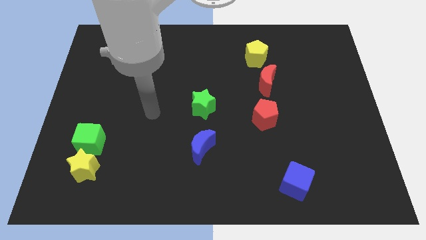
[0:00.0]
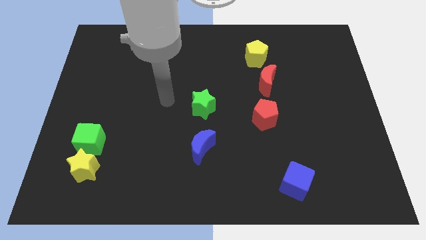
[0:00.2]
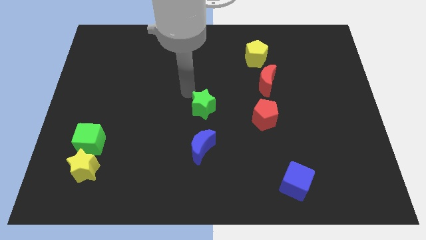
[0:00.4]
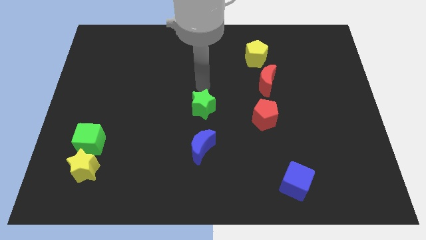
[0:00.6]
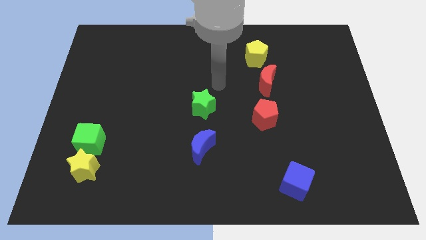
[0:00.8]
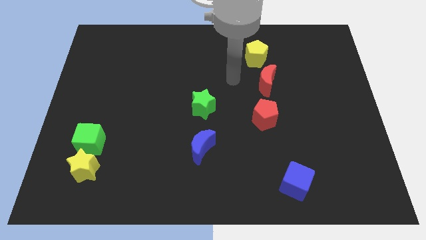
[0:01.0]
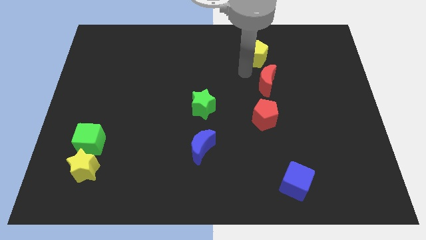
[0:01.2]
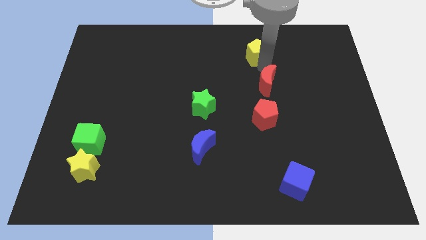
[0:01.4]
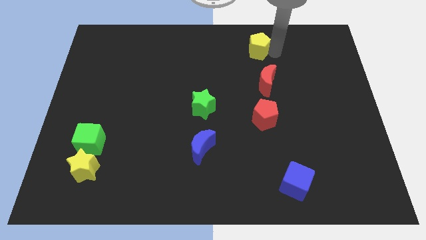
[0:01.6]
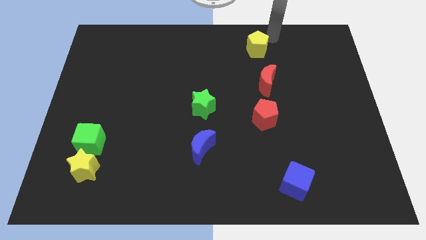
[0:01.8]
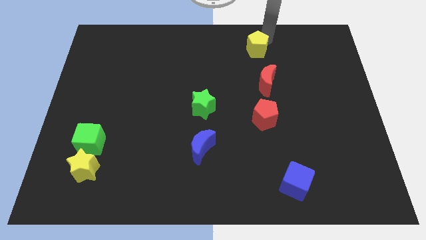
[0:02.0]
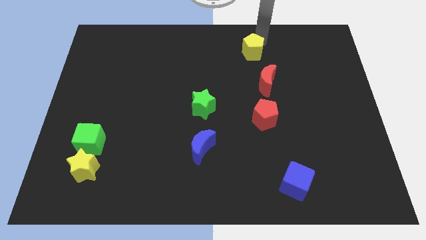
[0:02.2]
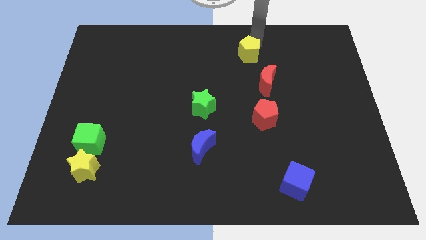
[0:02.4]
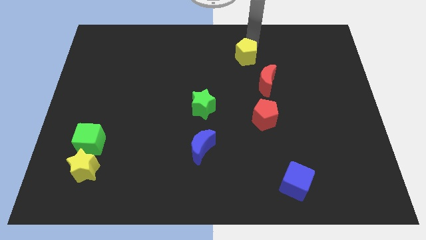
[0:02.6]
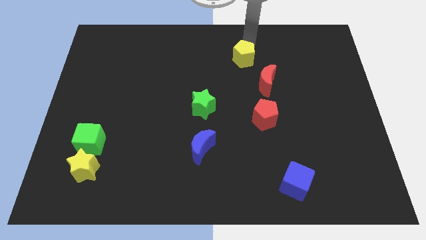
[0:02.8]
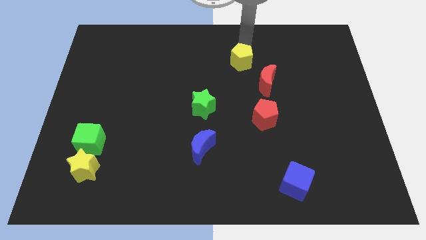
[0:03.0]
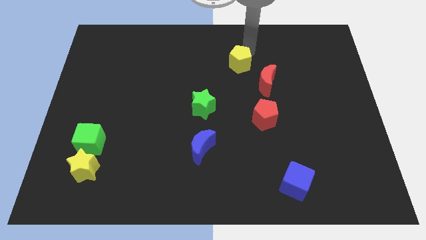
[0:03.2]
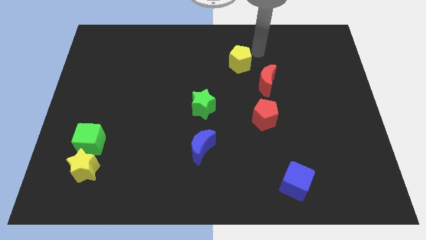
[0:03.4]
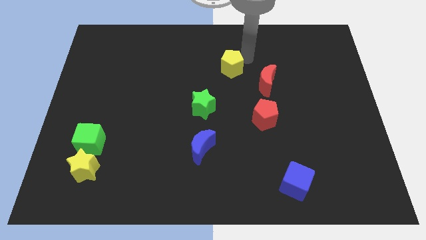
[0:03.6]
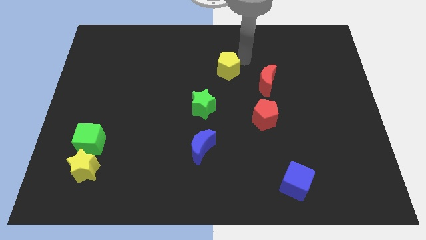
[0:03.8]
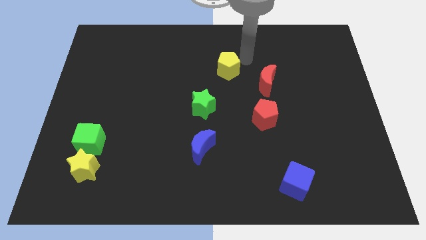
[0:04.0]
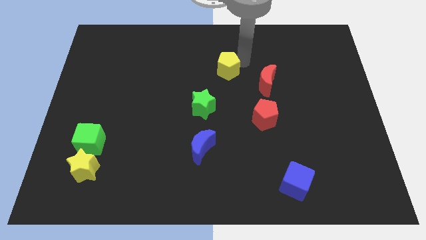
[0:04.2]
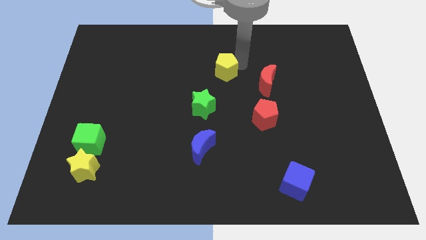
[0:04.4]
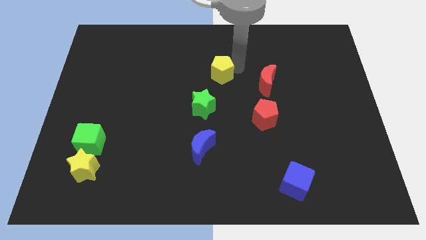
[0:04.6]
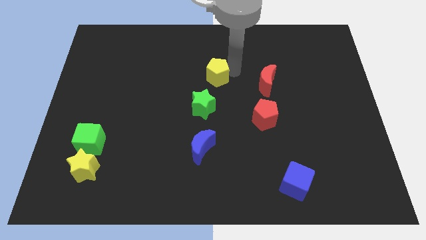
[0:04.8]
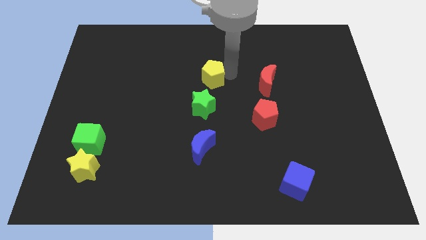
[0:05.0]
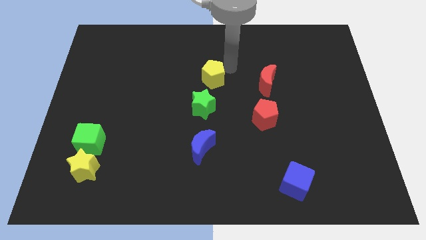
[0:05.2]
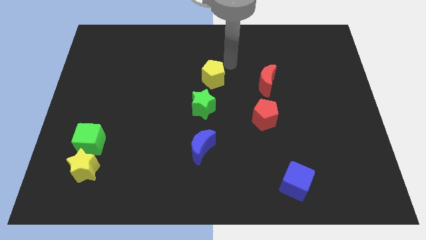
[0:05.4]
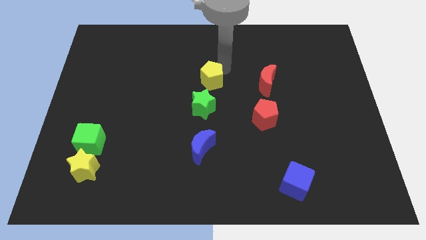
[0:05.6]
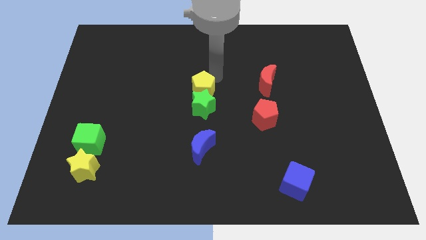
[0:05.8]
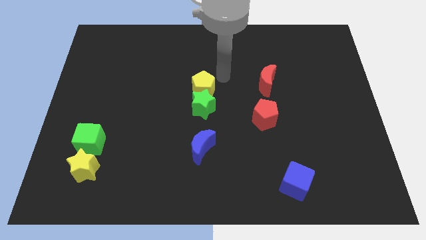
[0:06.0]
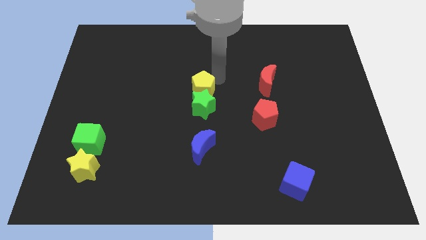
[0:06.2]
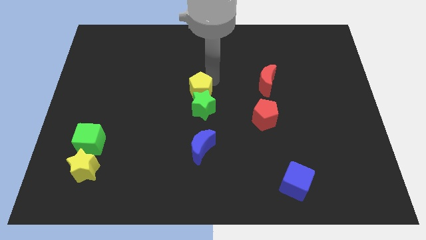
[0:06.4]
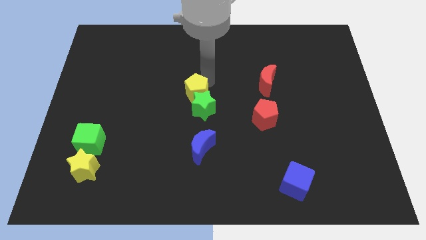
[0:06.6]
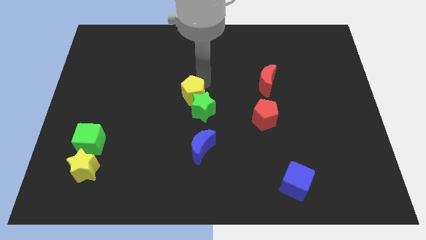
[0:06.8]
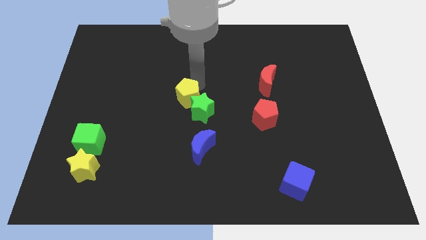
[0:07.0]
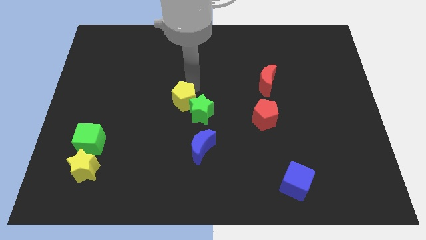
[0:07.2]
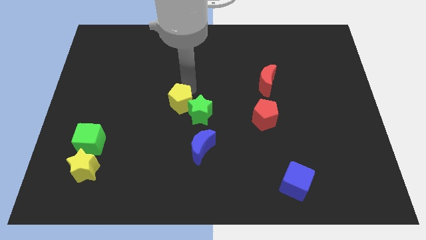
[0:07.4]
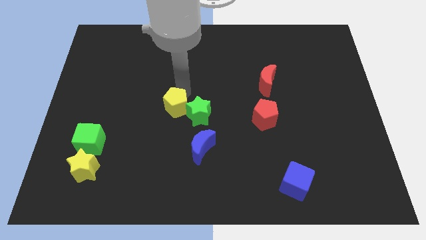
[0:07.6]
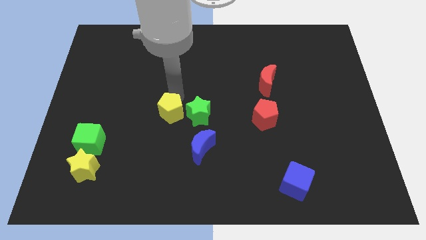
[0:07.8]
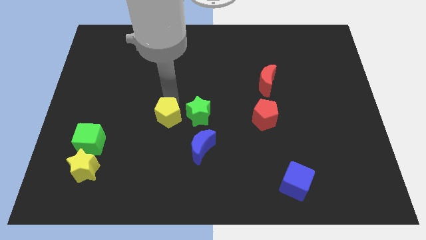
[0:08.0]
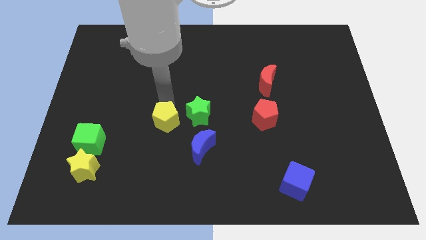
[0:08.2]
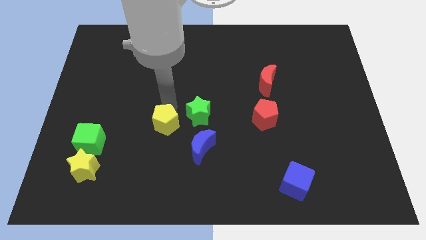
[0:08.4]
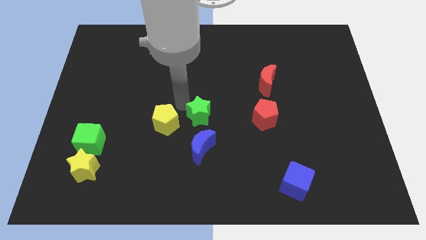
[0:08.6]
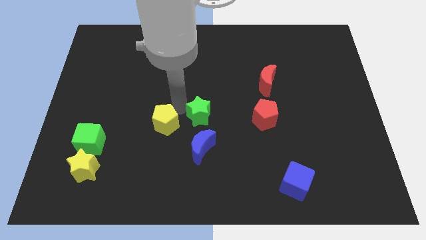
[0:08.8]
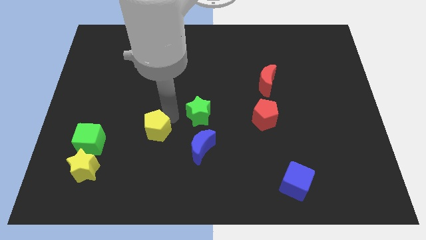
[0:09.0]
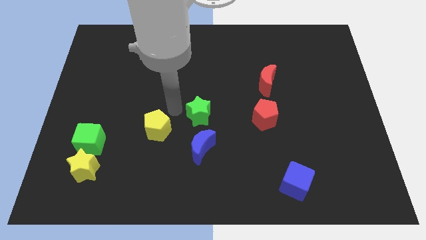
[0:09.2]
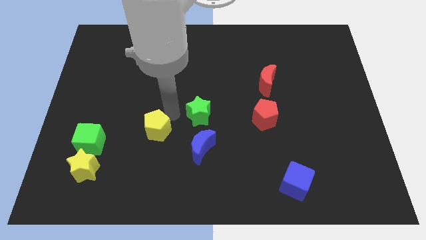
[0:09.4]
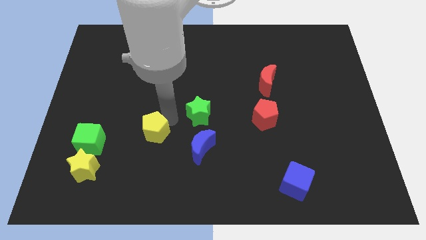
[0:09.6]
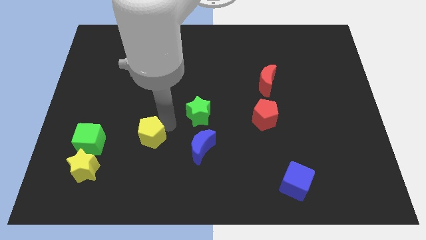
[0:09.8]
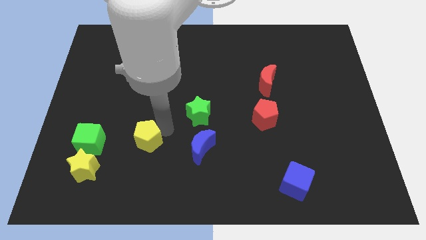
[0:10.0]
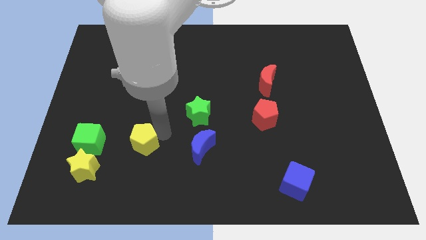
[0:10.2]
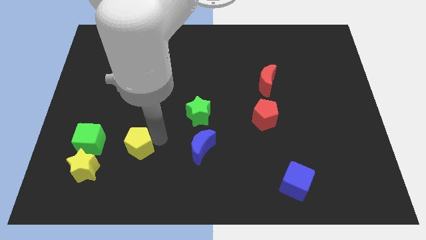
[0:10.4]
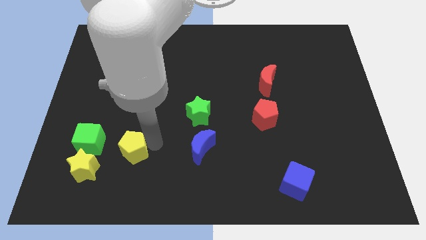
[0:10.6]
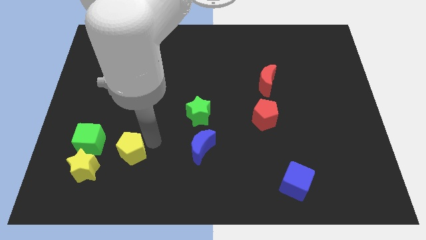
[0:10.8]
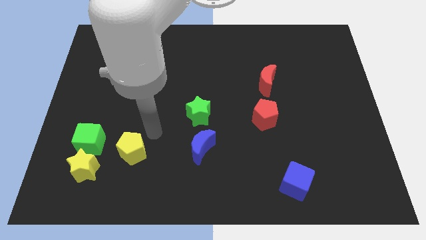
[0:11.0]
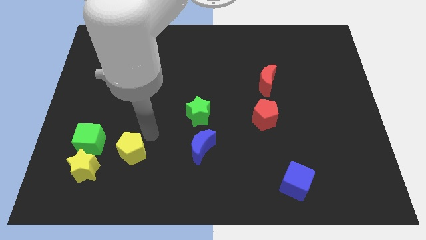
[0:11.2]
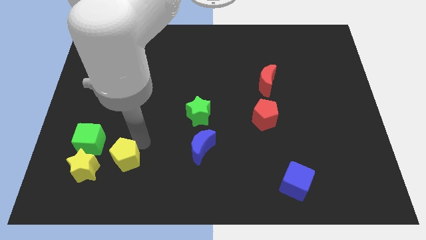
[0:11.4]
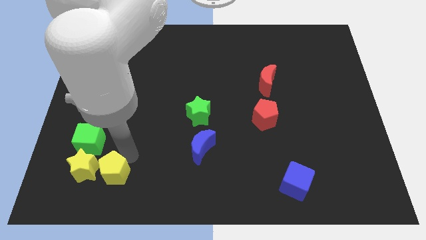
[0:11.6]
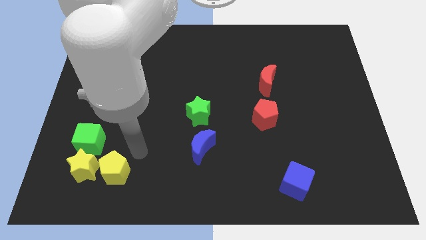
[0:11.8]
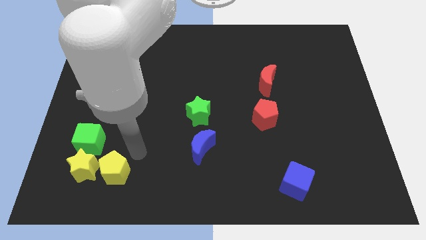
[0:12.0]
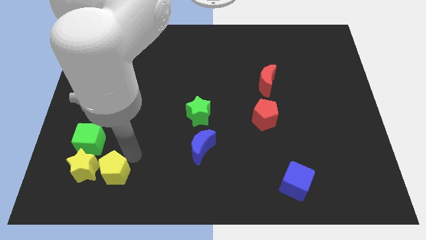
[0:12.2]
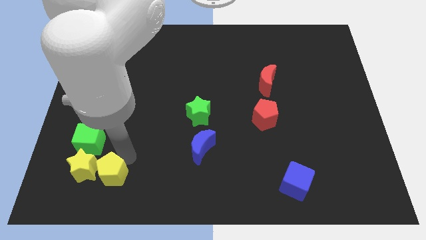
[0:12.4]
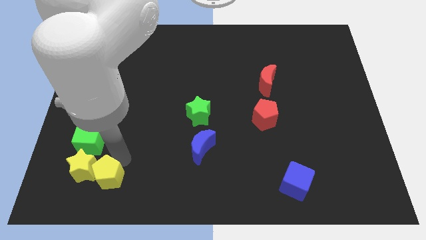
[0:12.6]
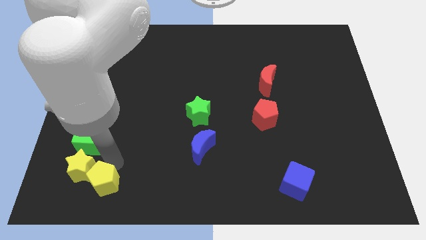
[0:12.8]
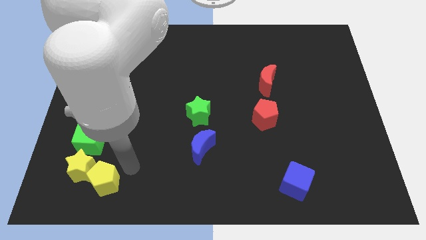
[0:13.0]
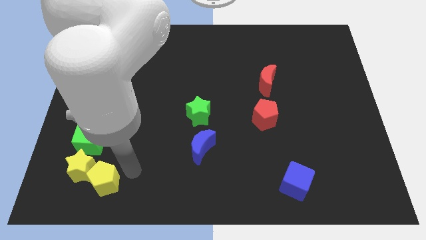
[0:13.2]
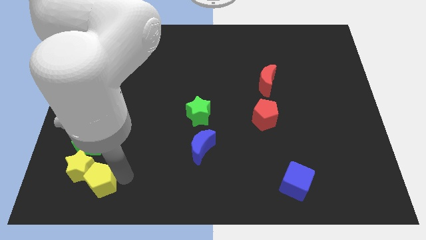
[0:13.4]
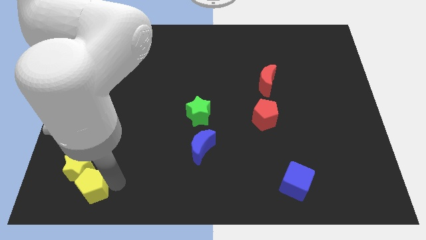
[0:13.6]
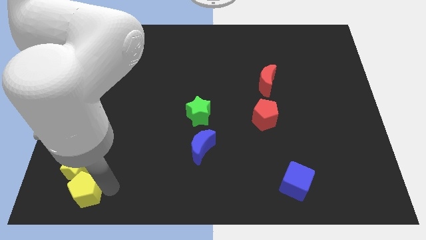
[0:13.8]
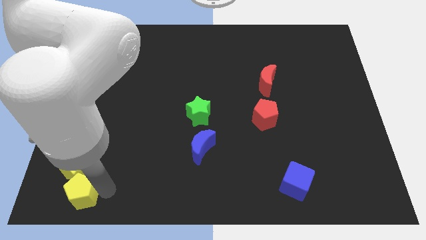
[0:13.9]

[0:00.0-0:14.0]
push the yellow pentagon to the bottom left corner
